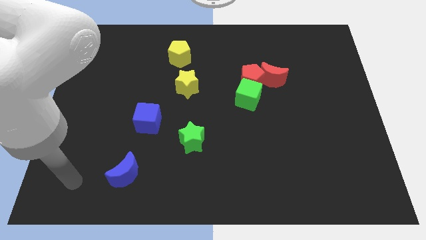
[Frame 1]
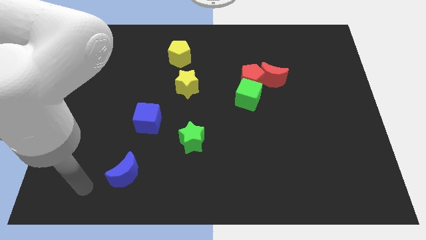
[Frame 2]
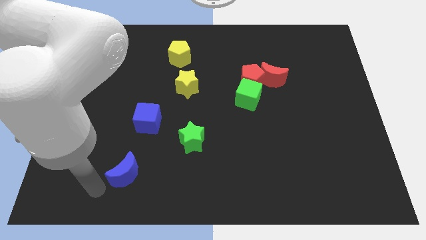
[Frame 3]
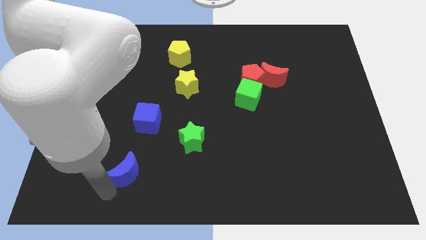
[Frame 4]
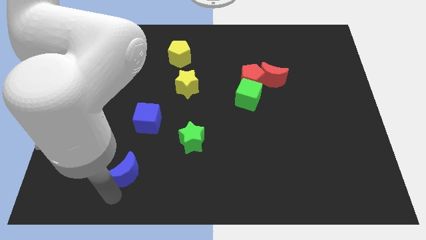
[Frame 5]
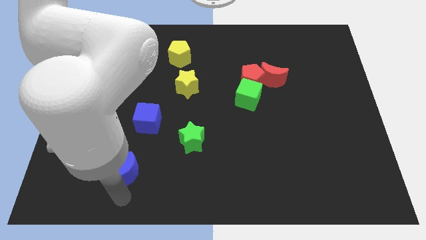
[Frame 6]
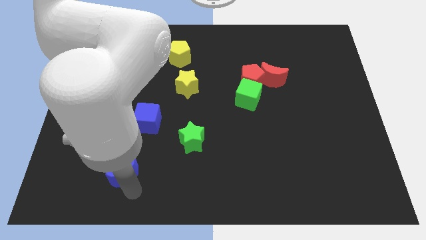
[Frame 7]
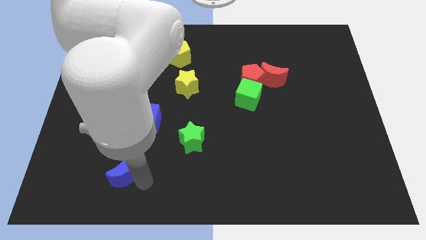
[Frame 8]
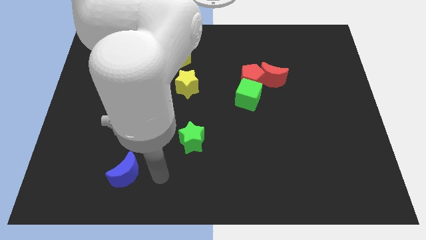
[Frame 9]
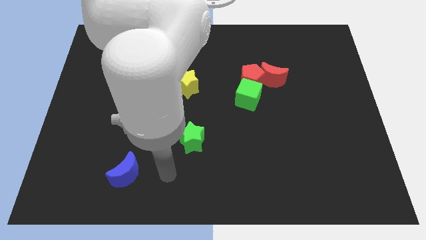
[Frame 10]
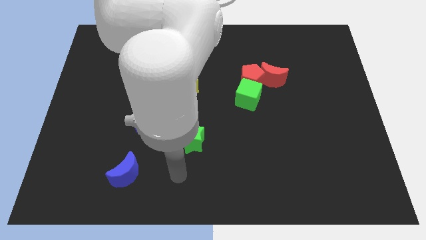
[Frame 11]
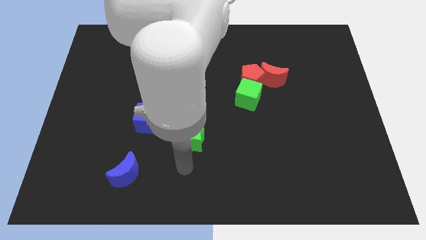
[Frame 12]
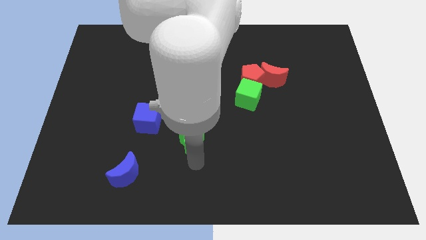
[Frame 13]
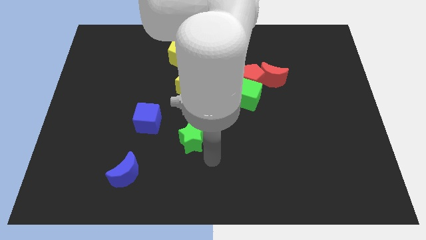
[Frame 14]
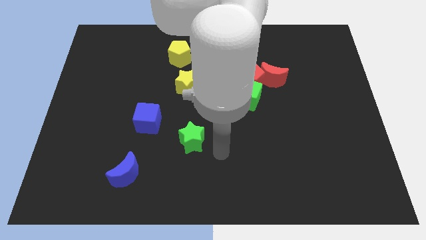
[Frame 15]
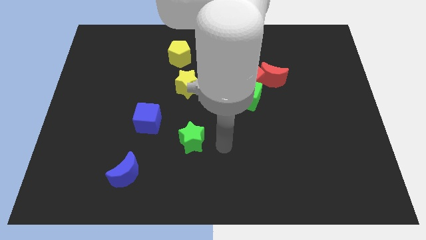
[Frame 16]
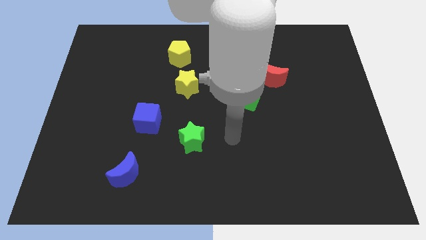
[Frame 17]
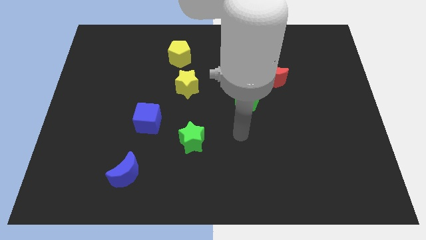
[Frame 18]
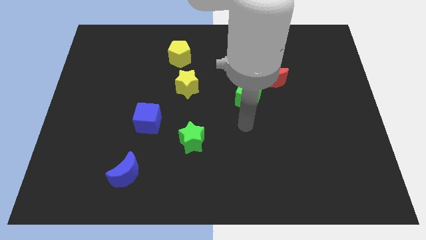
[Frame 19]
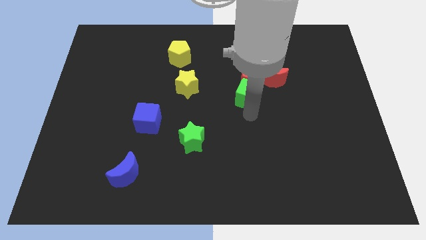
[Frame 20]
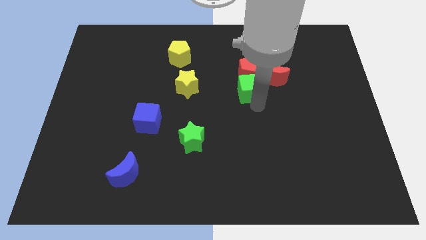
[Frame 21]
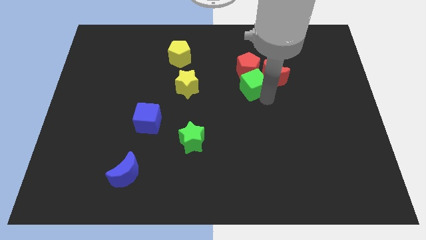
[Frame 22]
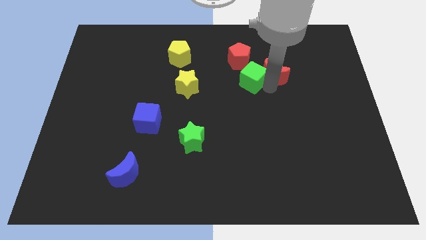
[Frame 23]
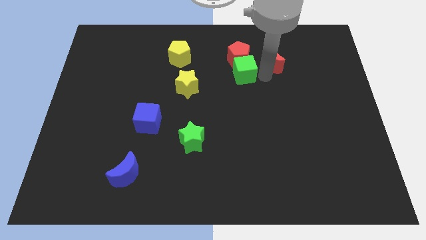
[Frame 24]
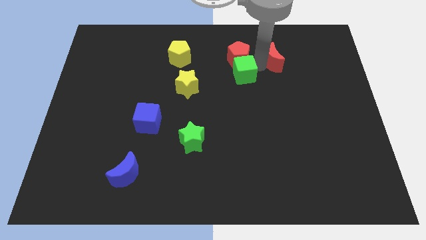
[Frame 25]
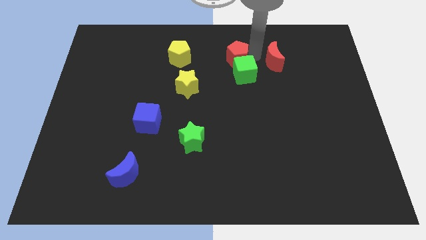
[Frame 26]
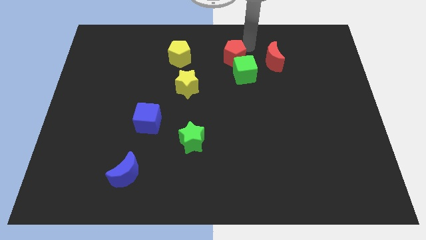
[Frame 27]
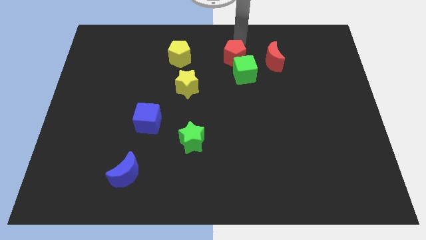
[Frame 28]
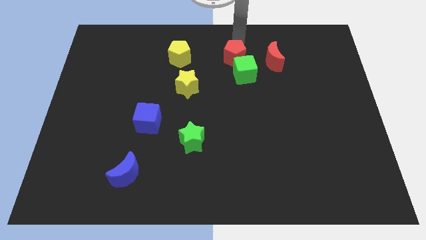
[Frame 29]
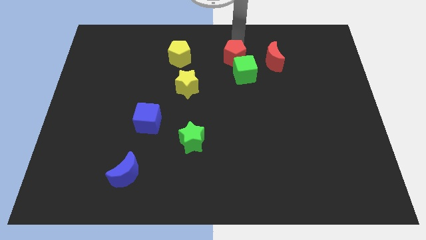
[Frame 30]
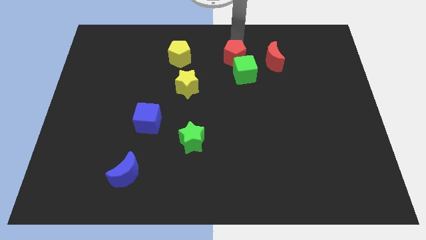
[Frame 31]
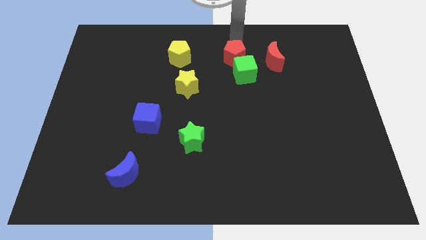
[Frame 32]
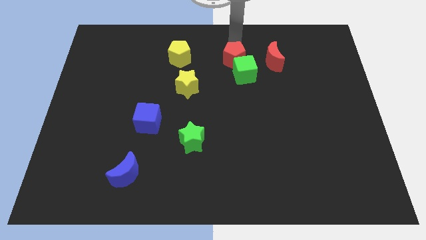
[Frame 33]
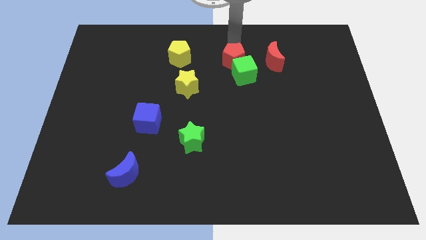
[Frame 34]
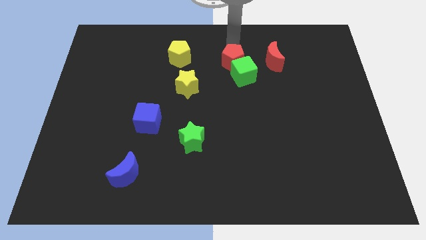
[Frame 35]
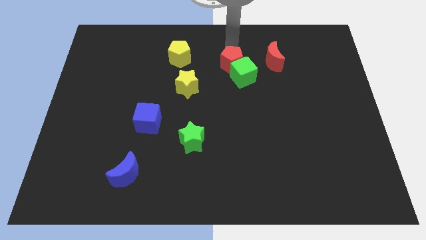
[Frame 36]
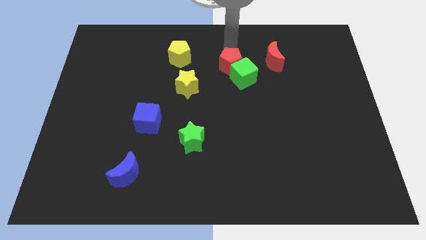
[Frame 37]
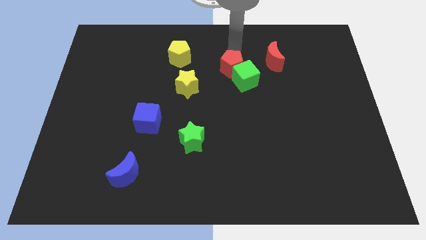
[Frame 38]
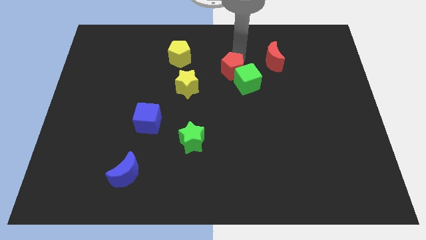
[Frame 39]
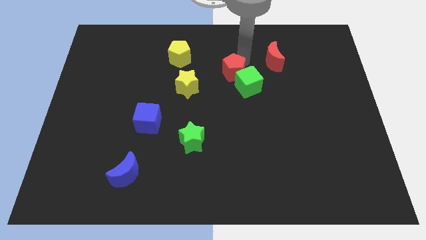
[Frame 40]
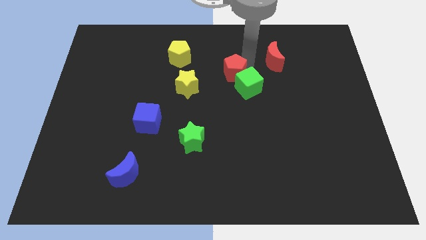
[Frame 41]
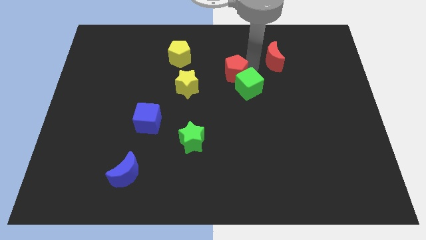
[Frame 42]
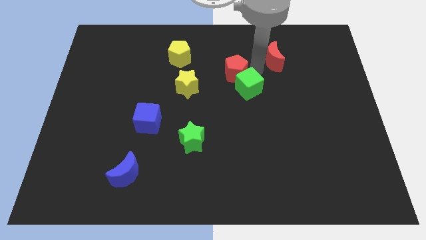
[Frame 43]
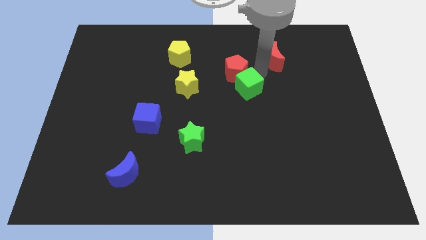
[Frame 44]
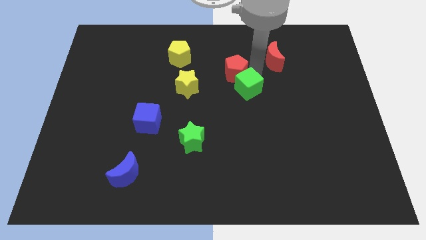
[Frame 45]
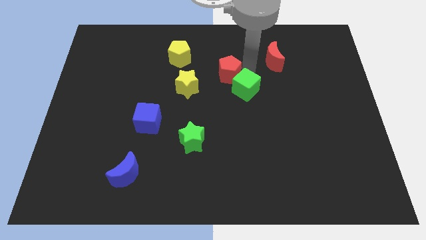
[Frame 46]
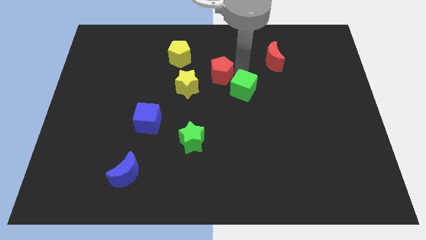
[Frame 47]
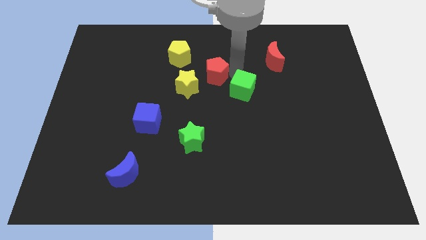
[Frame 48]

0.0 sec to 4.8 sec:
pull the red pentagon apart from the green cube and red moon

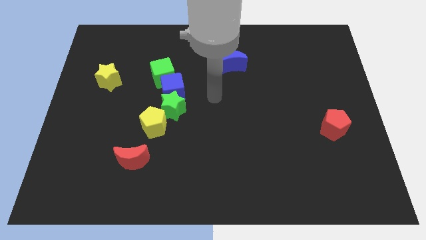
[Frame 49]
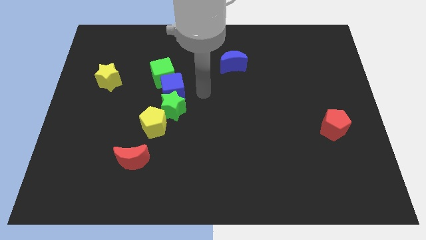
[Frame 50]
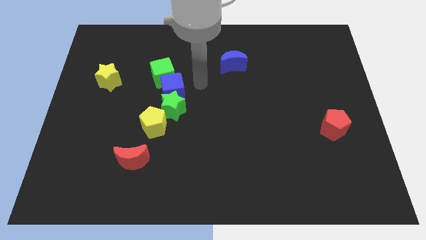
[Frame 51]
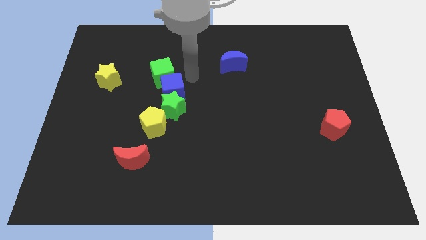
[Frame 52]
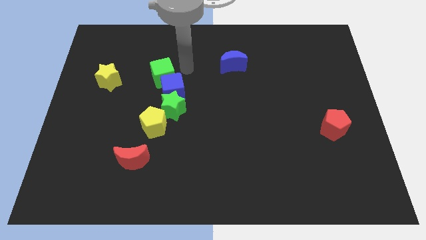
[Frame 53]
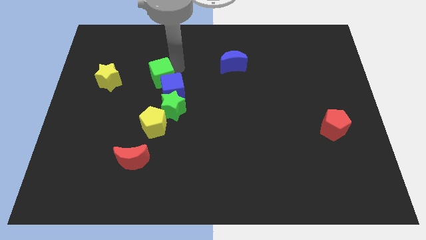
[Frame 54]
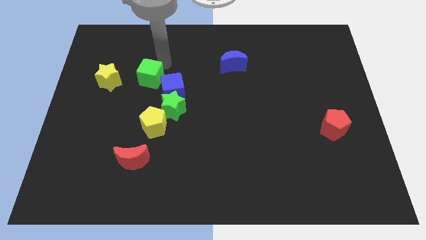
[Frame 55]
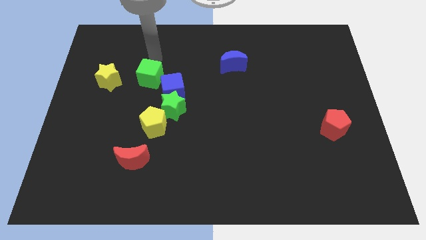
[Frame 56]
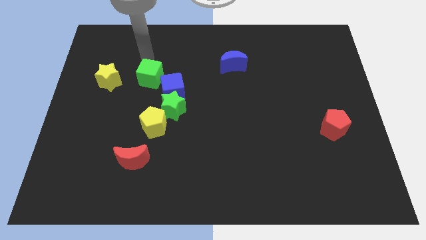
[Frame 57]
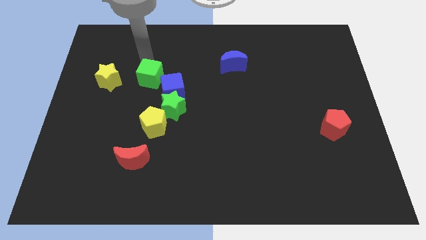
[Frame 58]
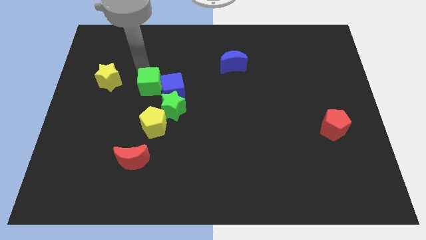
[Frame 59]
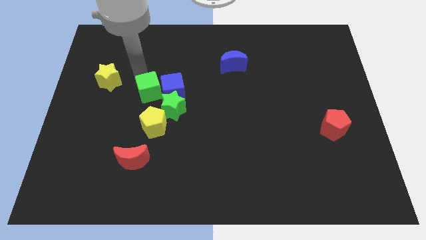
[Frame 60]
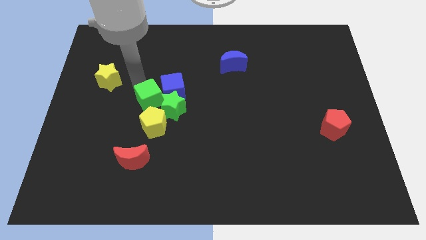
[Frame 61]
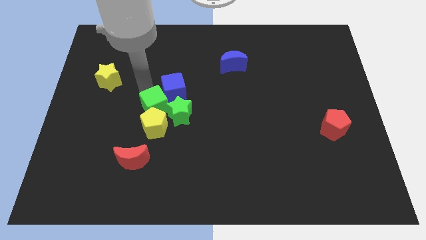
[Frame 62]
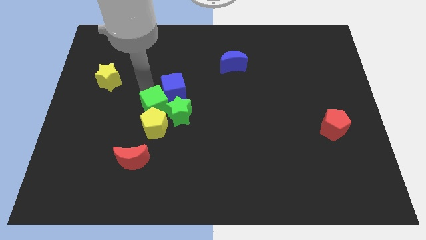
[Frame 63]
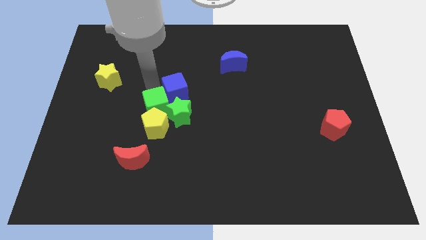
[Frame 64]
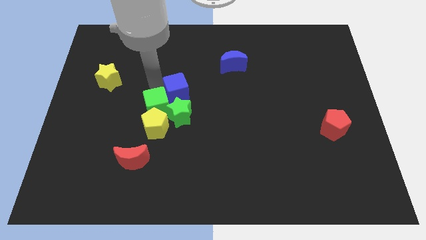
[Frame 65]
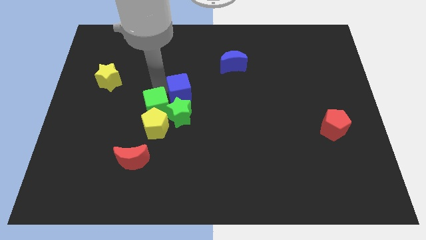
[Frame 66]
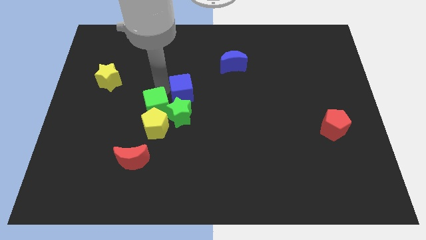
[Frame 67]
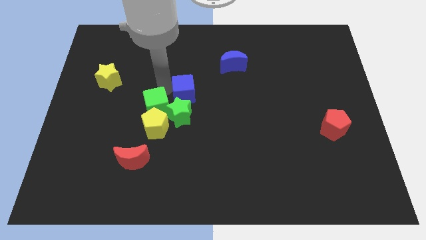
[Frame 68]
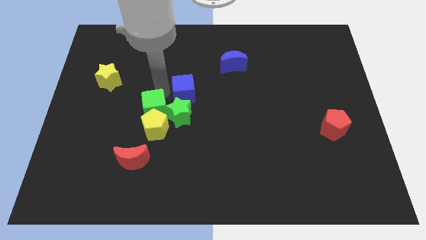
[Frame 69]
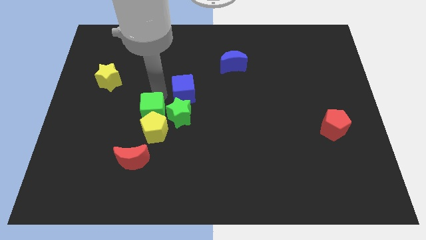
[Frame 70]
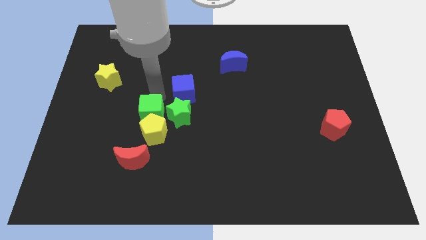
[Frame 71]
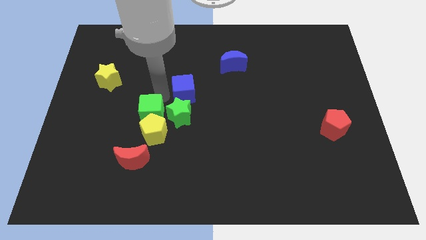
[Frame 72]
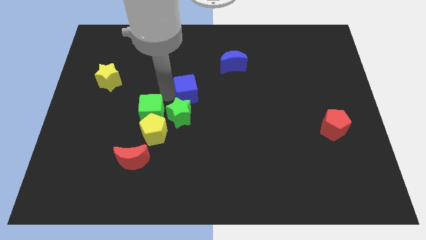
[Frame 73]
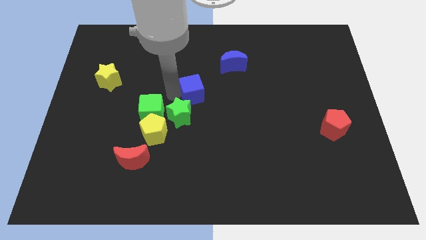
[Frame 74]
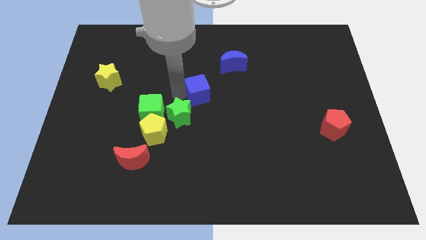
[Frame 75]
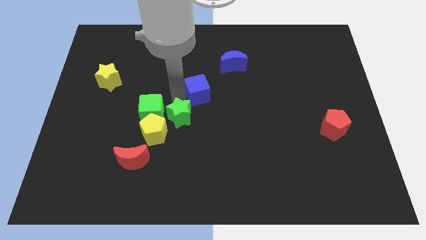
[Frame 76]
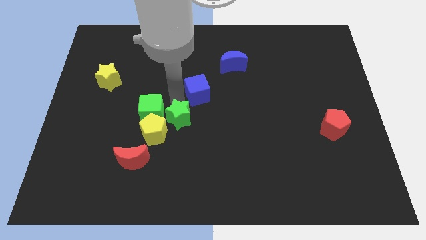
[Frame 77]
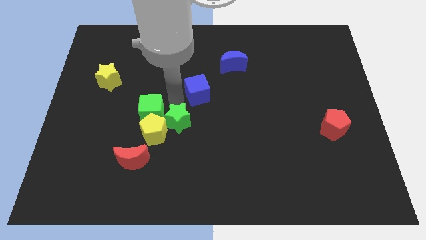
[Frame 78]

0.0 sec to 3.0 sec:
pull the blue cube apart from the green star and green cube

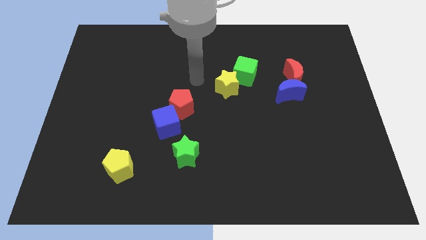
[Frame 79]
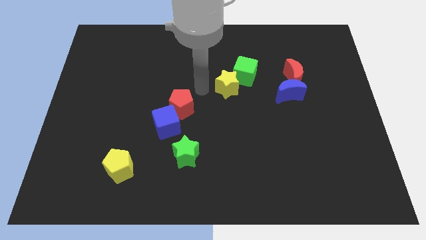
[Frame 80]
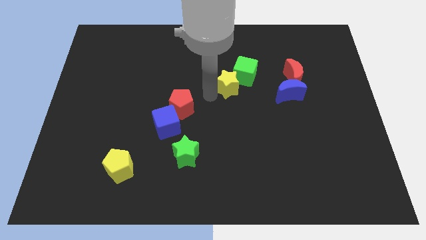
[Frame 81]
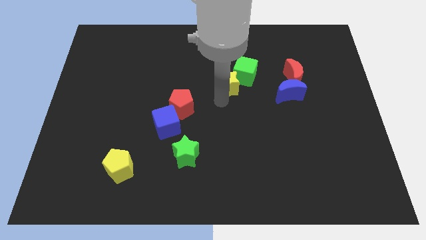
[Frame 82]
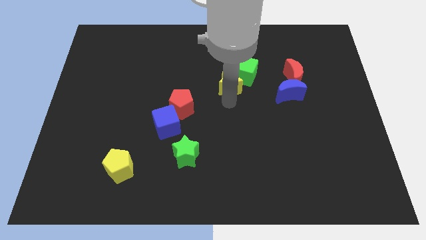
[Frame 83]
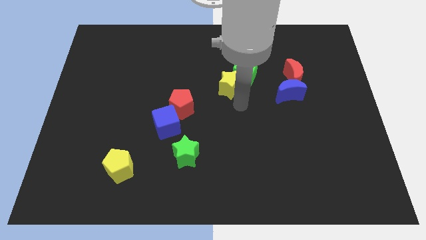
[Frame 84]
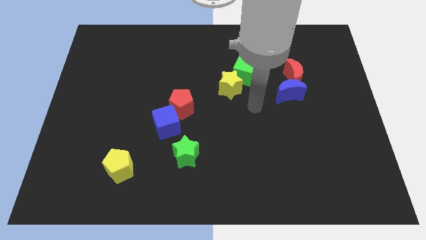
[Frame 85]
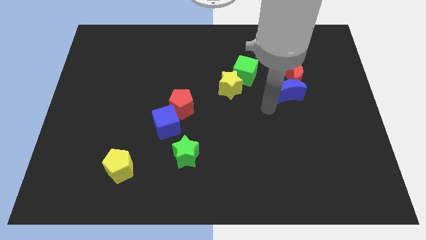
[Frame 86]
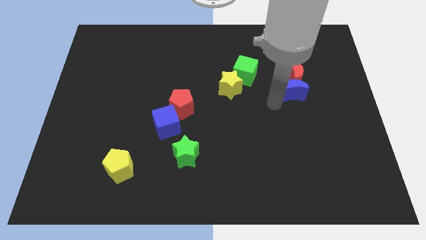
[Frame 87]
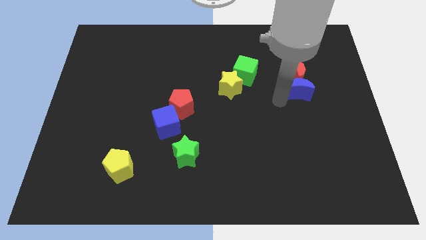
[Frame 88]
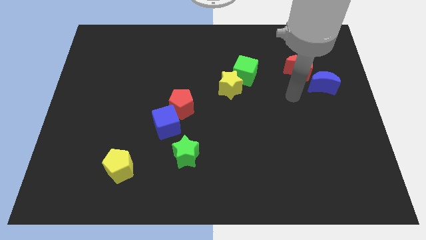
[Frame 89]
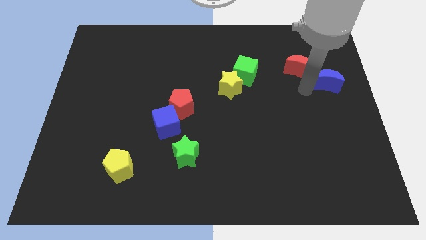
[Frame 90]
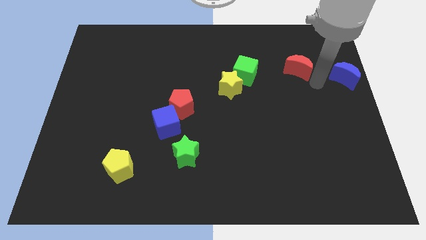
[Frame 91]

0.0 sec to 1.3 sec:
pull the red moon apart from the blue moon

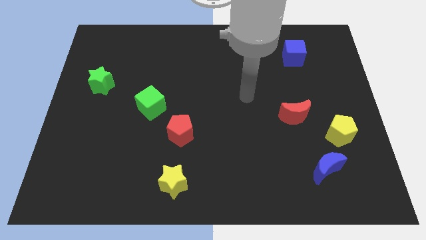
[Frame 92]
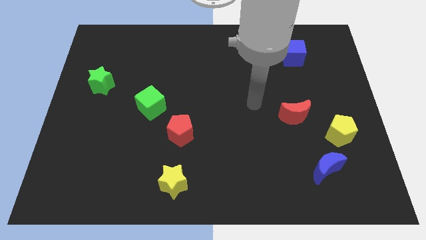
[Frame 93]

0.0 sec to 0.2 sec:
move the blue moon away from the yellow pentagon
